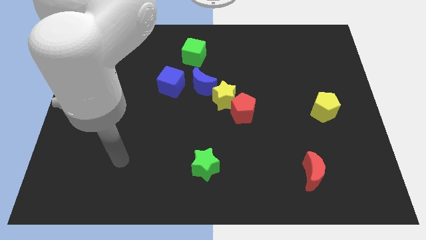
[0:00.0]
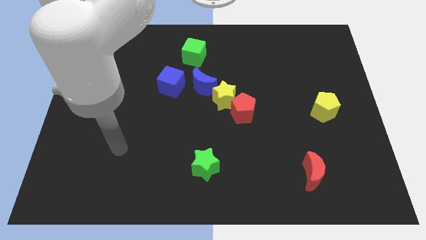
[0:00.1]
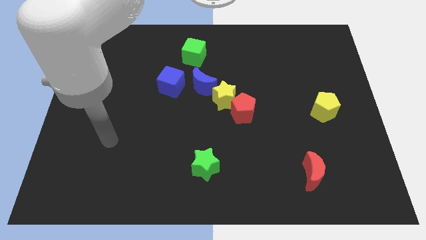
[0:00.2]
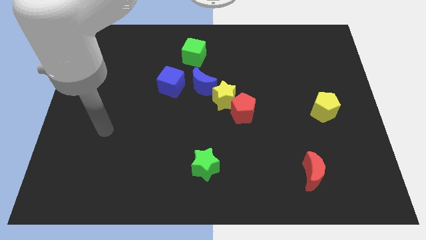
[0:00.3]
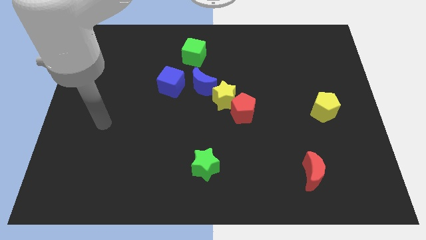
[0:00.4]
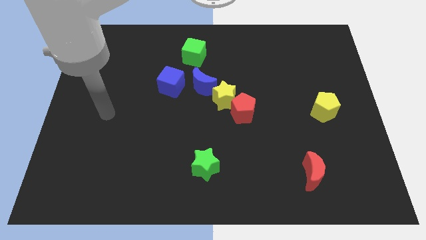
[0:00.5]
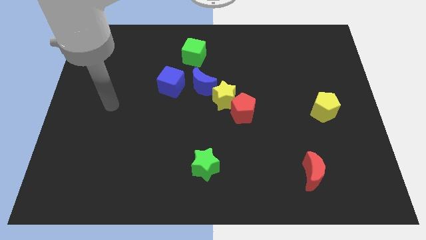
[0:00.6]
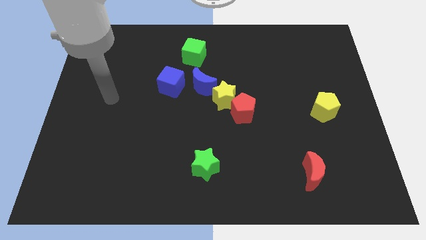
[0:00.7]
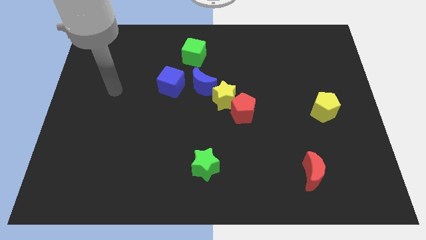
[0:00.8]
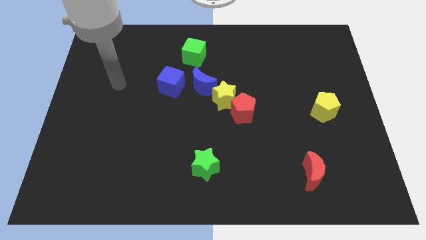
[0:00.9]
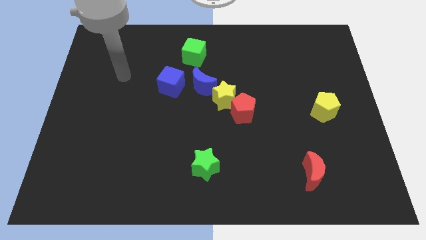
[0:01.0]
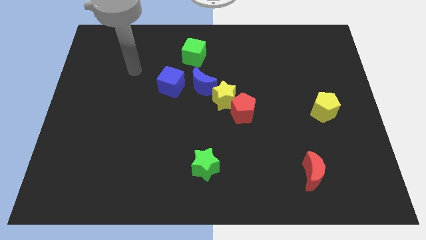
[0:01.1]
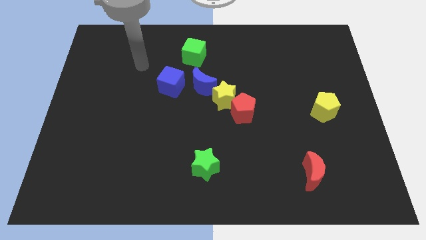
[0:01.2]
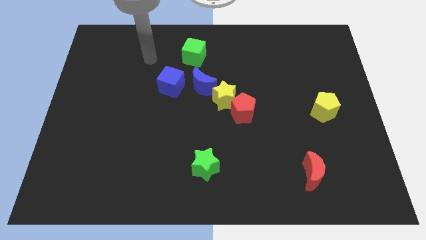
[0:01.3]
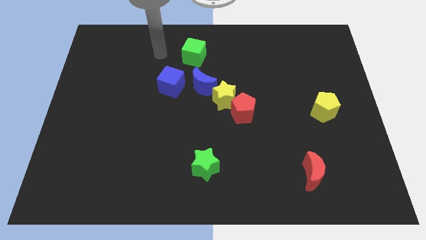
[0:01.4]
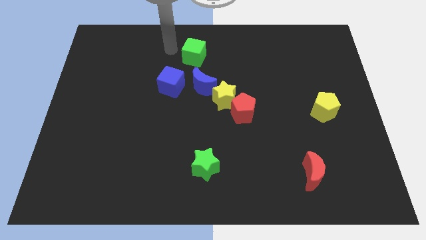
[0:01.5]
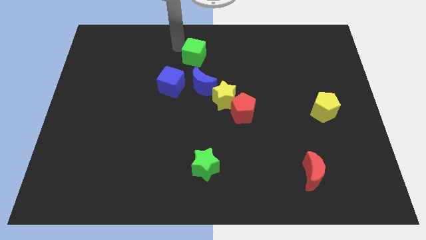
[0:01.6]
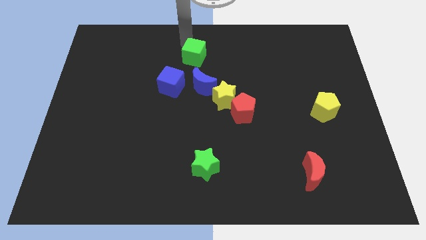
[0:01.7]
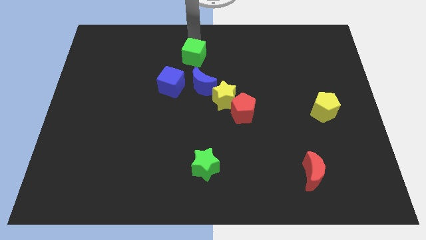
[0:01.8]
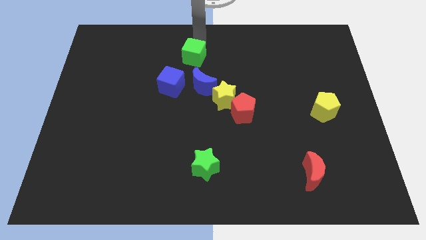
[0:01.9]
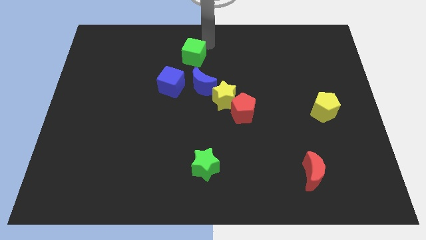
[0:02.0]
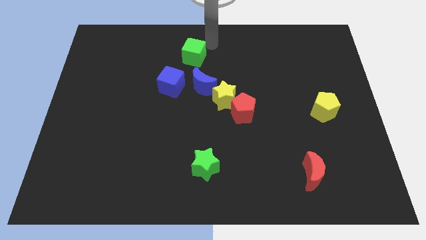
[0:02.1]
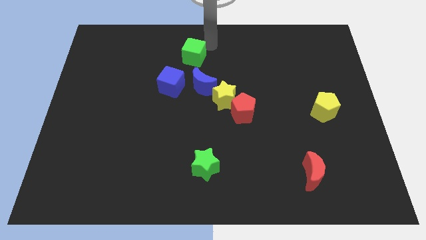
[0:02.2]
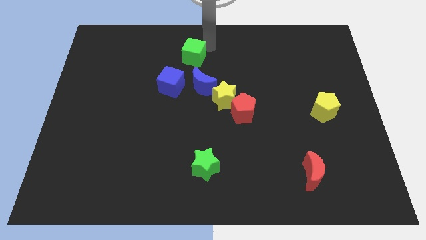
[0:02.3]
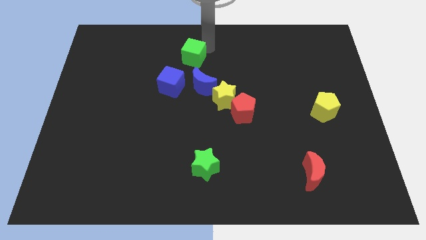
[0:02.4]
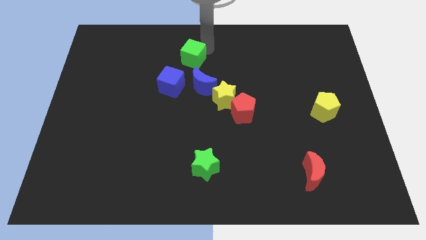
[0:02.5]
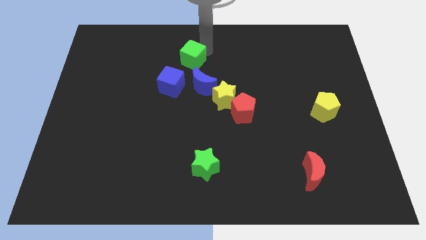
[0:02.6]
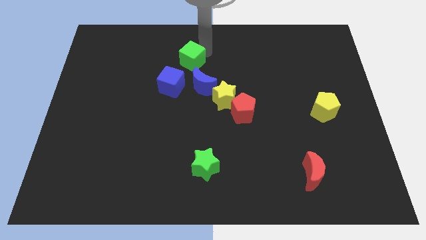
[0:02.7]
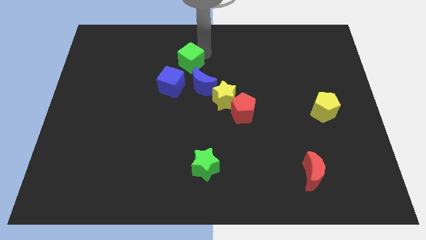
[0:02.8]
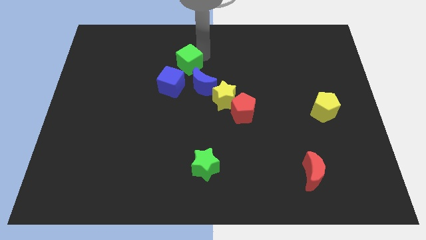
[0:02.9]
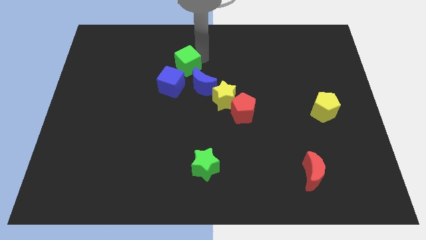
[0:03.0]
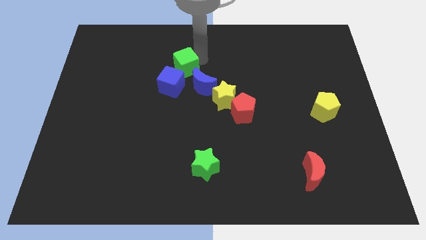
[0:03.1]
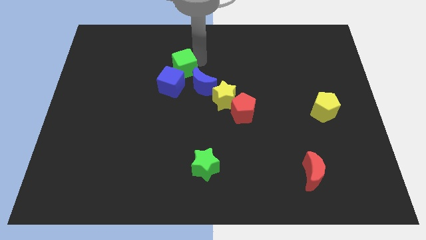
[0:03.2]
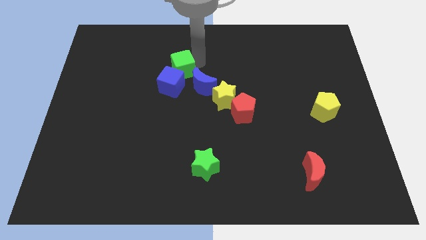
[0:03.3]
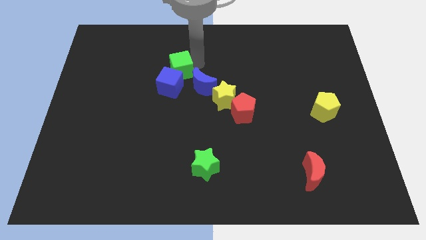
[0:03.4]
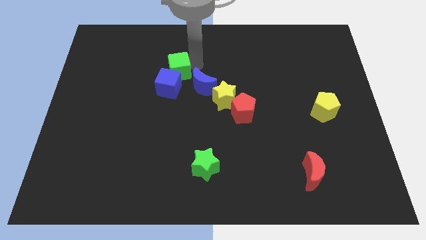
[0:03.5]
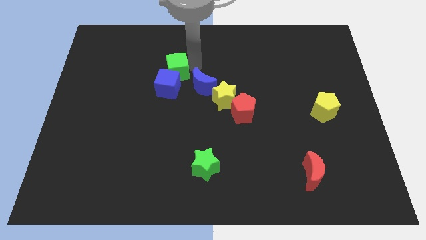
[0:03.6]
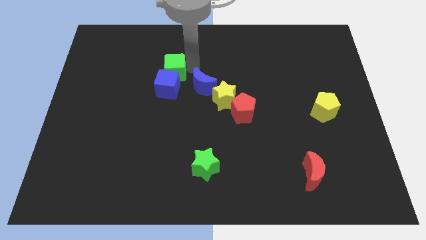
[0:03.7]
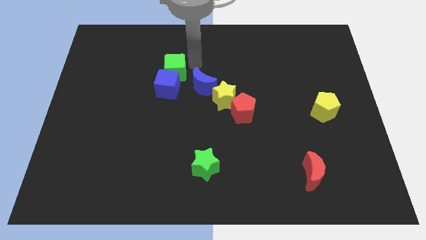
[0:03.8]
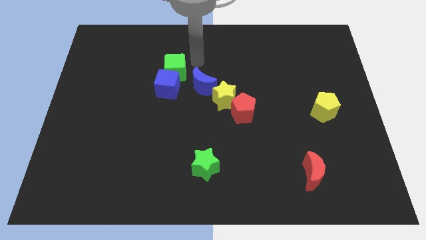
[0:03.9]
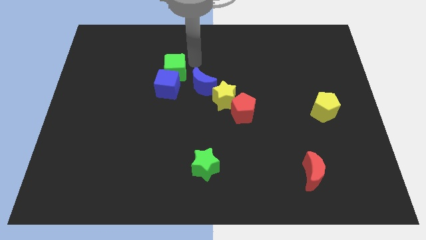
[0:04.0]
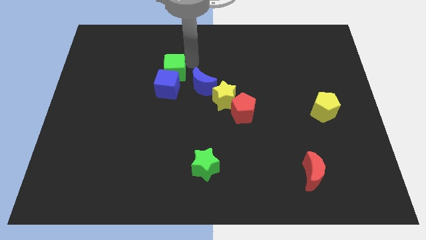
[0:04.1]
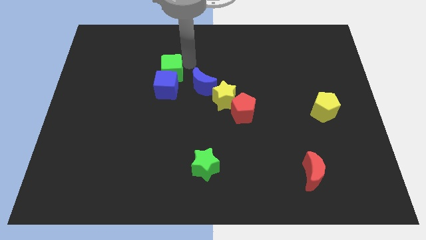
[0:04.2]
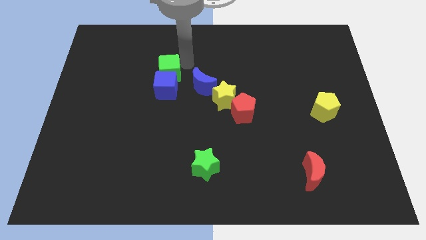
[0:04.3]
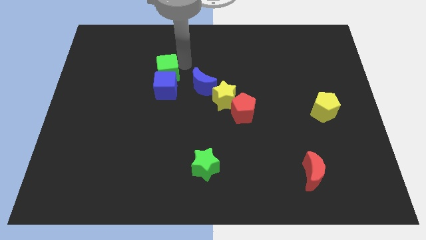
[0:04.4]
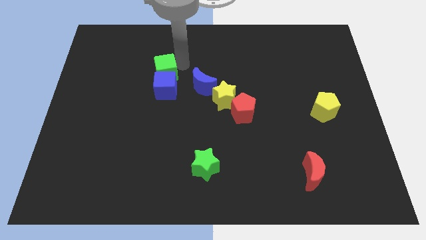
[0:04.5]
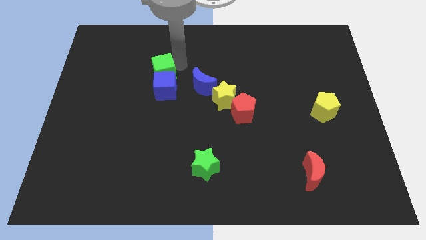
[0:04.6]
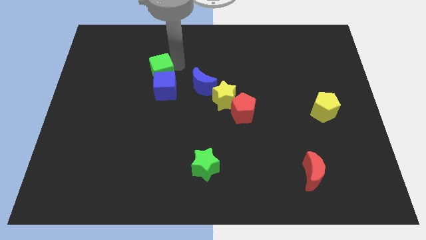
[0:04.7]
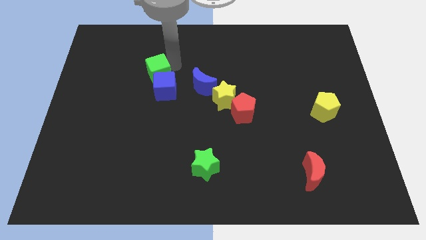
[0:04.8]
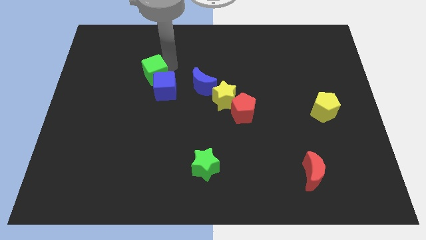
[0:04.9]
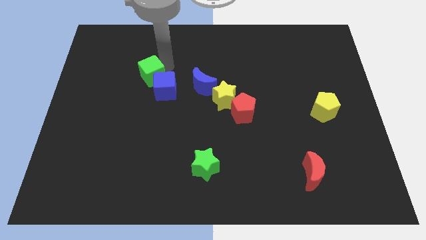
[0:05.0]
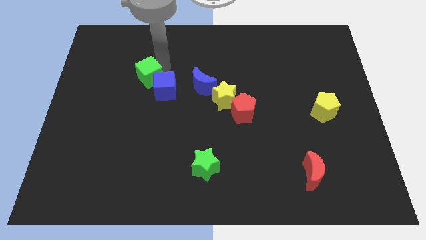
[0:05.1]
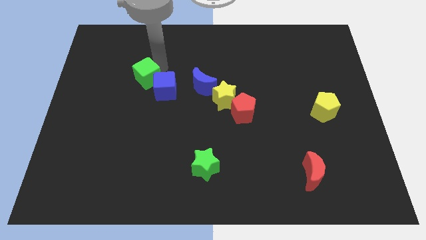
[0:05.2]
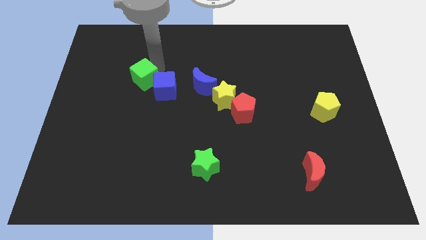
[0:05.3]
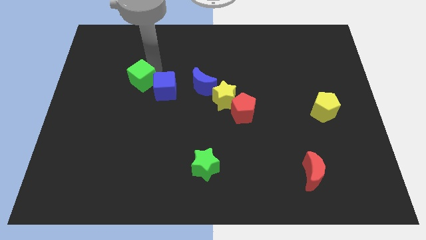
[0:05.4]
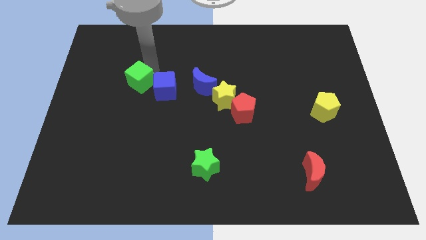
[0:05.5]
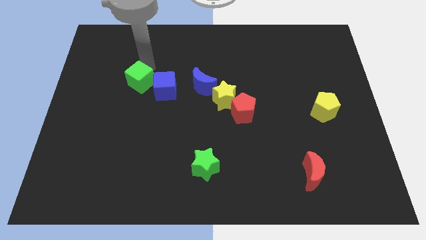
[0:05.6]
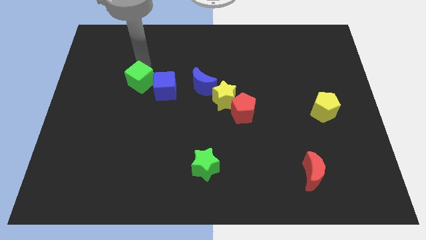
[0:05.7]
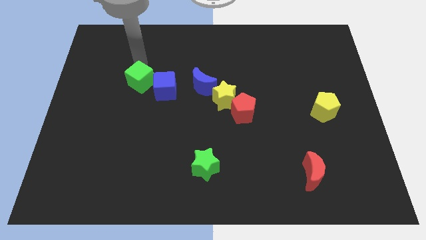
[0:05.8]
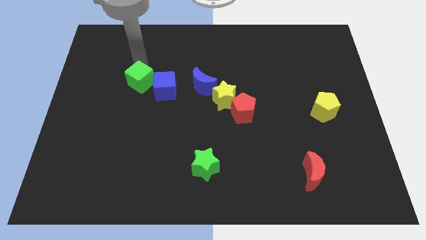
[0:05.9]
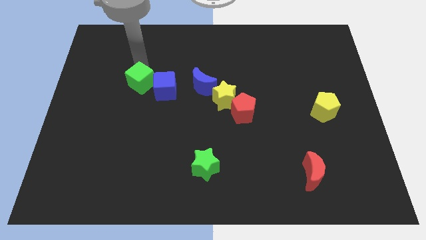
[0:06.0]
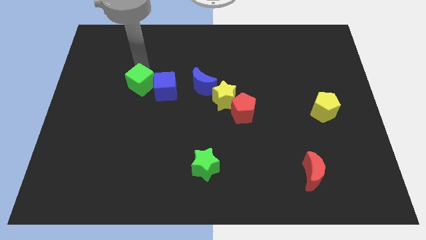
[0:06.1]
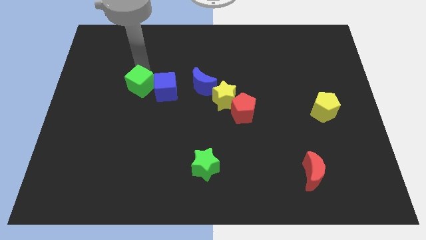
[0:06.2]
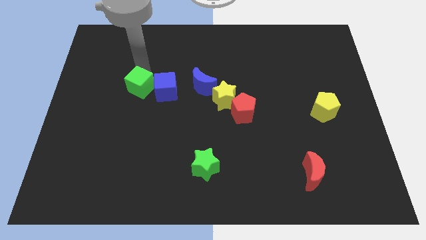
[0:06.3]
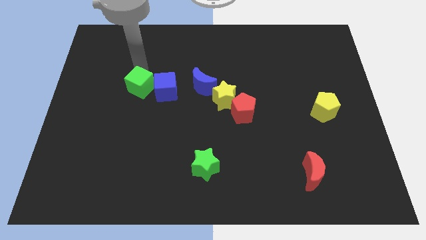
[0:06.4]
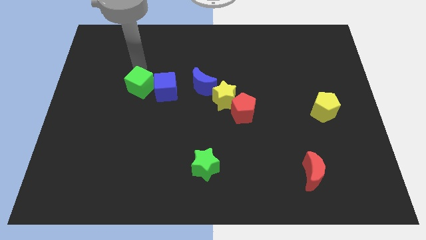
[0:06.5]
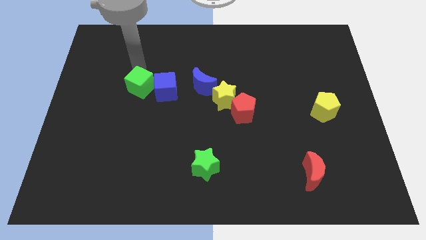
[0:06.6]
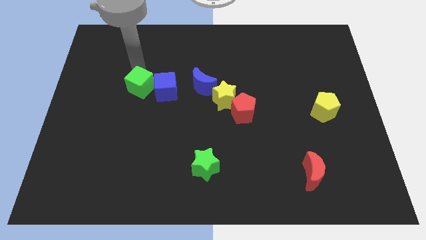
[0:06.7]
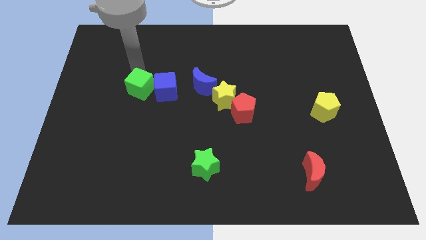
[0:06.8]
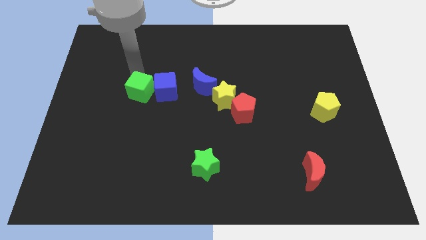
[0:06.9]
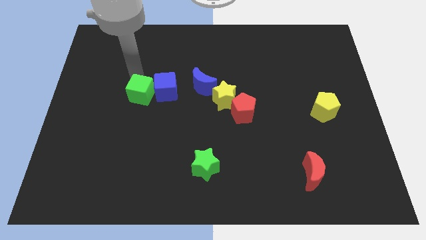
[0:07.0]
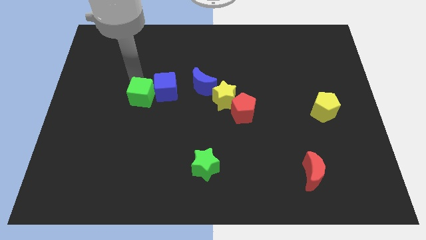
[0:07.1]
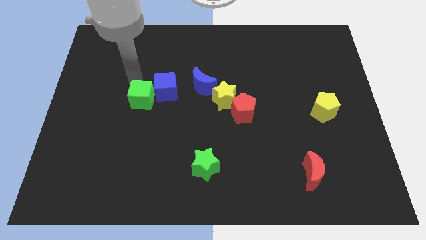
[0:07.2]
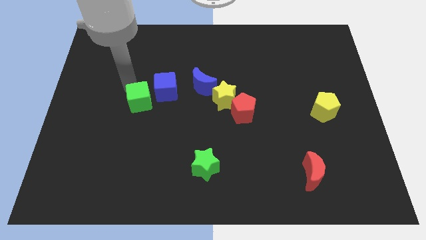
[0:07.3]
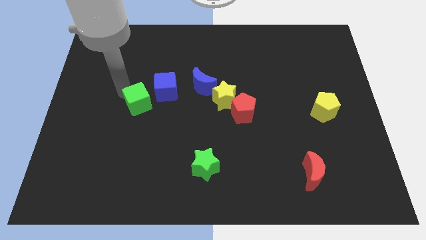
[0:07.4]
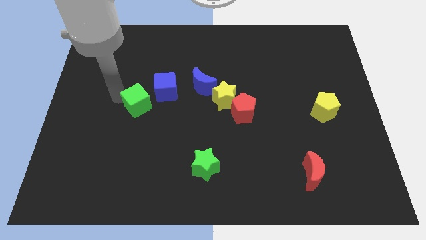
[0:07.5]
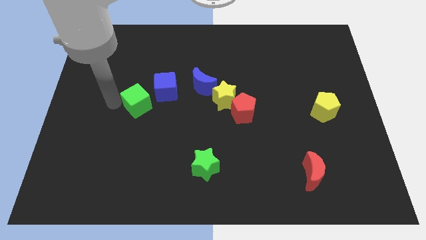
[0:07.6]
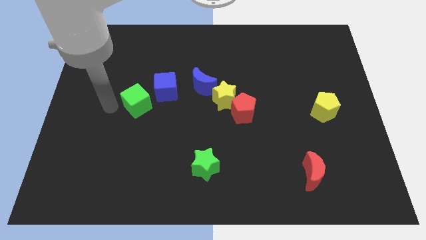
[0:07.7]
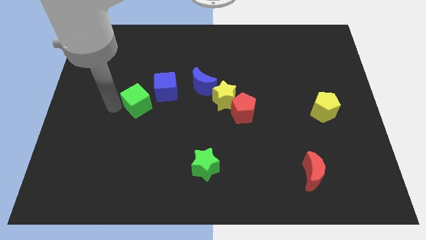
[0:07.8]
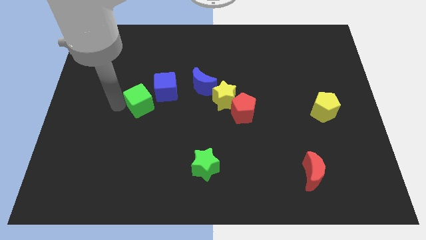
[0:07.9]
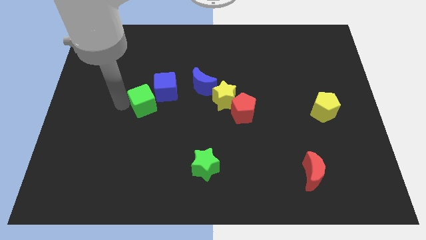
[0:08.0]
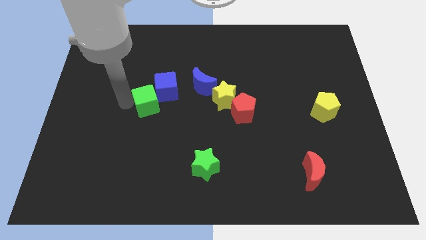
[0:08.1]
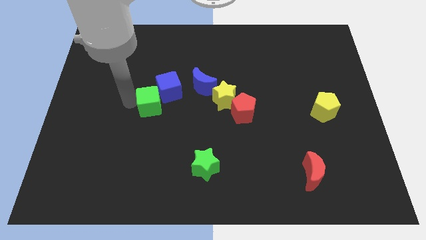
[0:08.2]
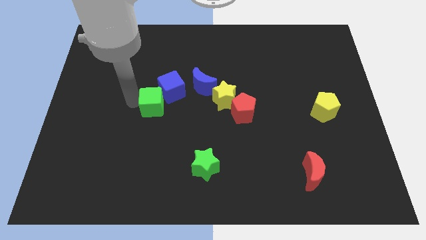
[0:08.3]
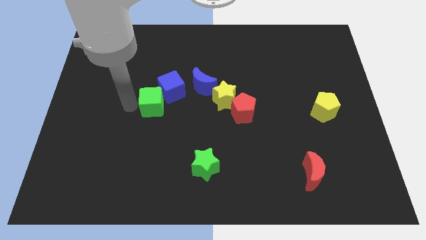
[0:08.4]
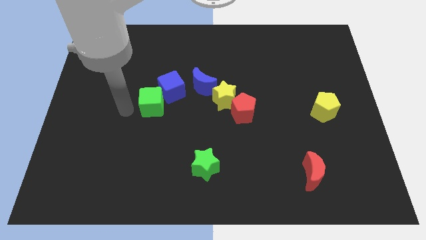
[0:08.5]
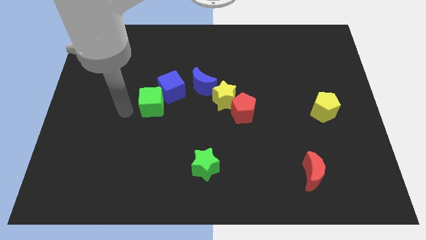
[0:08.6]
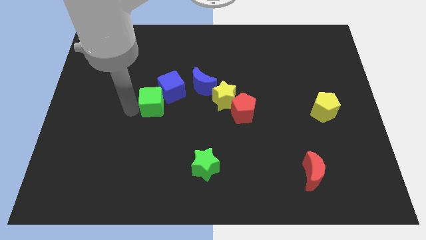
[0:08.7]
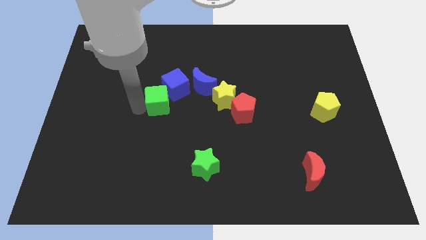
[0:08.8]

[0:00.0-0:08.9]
move the green cube just left of the yellow star
